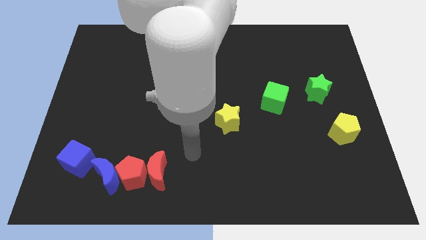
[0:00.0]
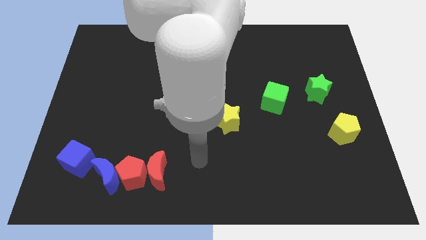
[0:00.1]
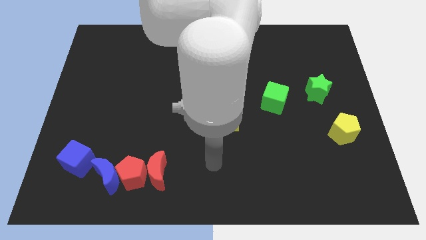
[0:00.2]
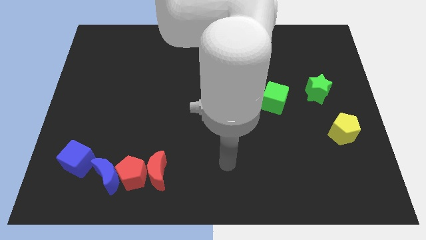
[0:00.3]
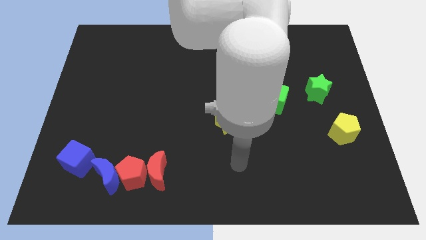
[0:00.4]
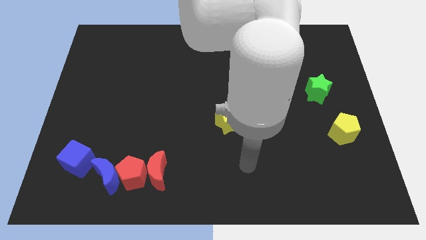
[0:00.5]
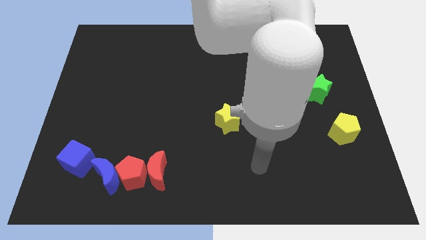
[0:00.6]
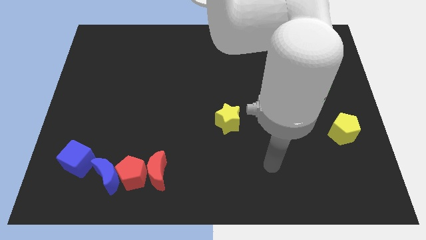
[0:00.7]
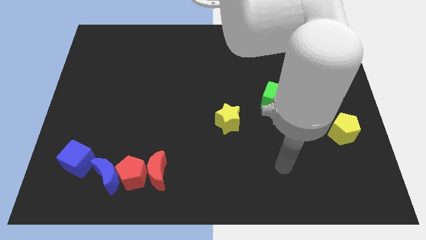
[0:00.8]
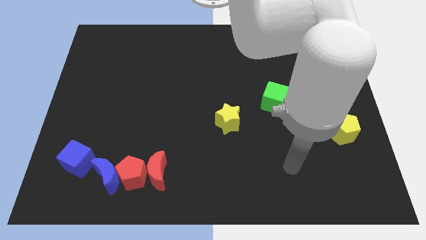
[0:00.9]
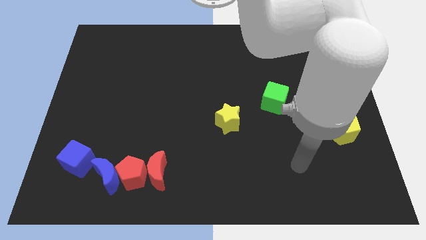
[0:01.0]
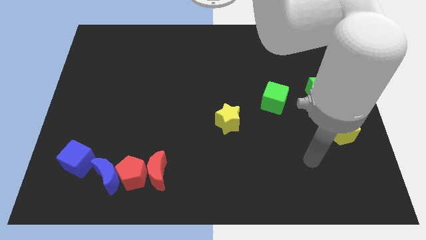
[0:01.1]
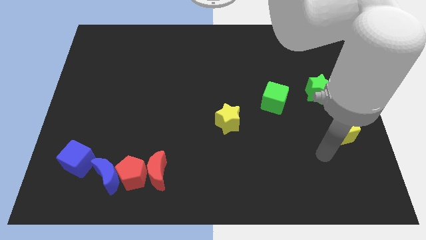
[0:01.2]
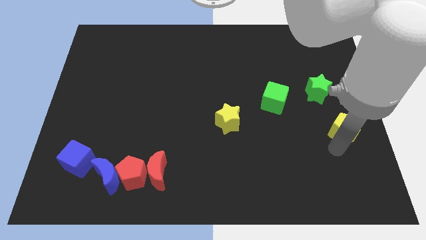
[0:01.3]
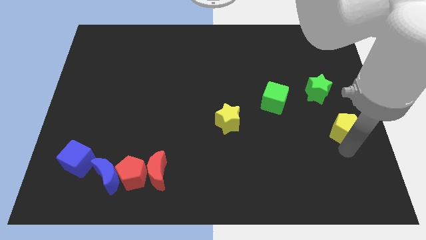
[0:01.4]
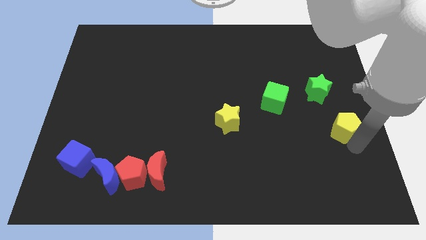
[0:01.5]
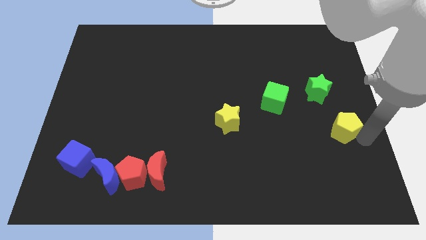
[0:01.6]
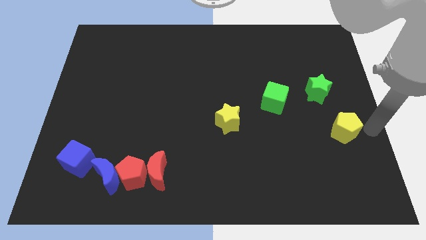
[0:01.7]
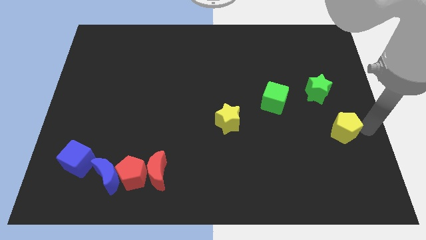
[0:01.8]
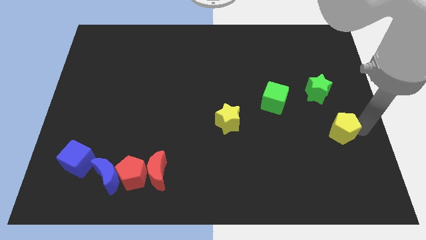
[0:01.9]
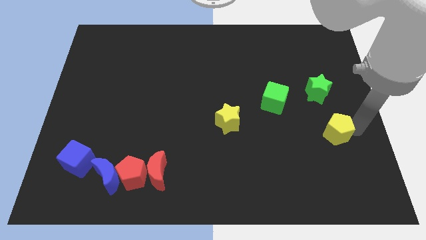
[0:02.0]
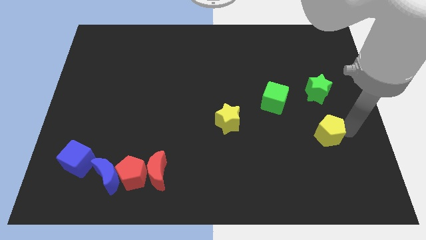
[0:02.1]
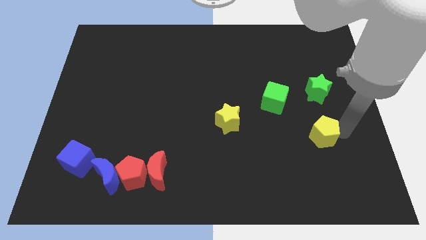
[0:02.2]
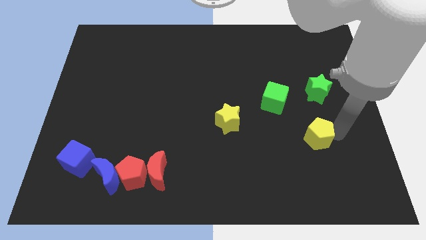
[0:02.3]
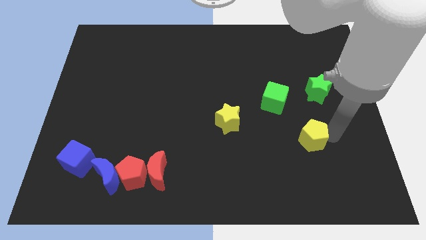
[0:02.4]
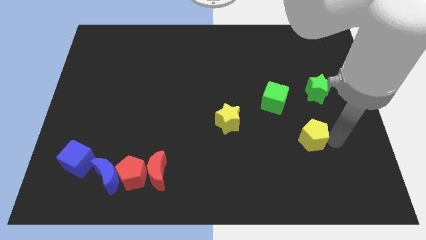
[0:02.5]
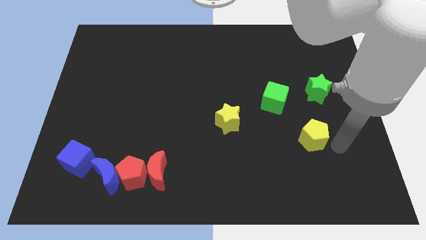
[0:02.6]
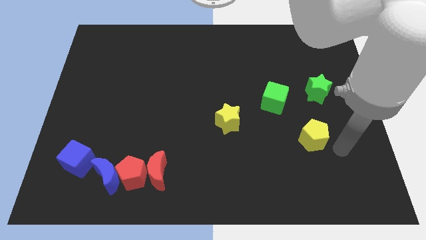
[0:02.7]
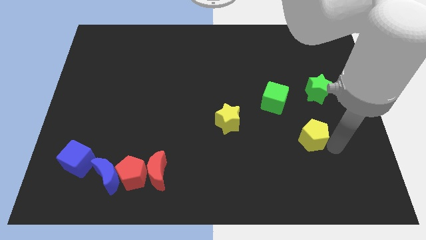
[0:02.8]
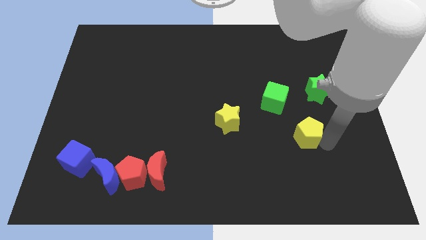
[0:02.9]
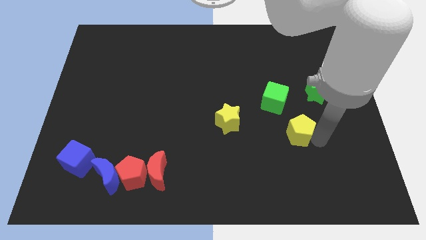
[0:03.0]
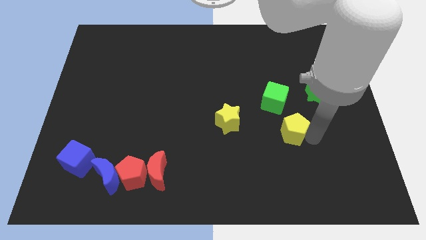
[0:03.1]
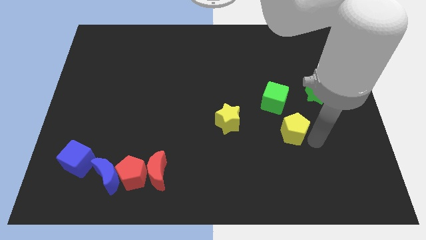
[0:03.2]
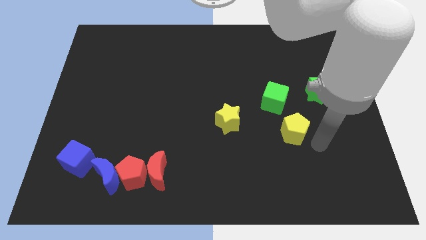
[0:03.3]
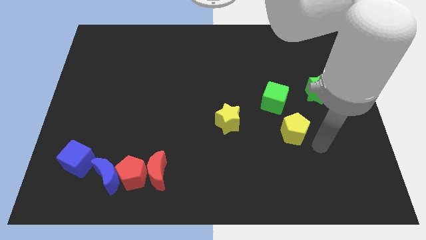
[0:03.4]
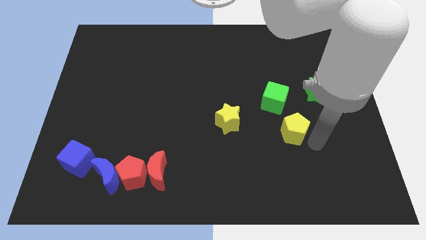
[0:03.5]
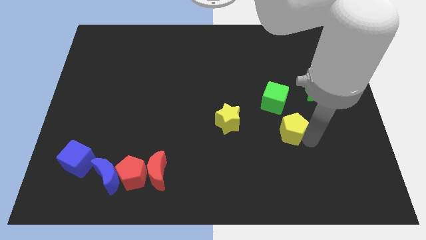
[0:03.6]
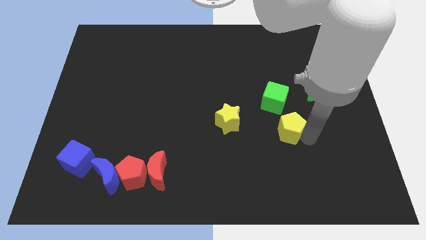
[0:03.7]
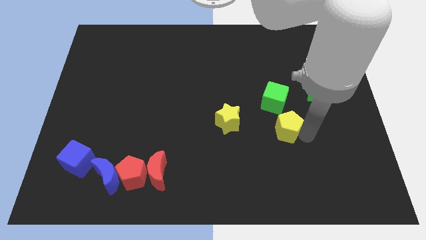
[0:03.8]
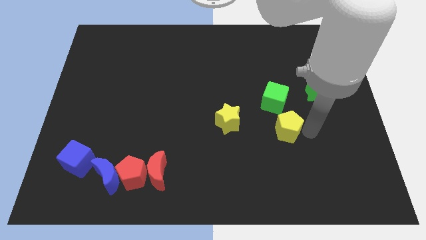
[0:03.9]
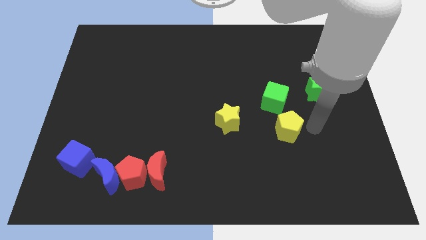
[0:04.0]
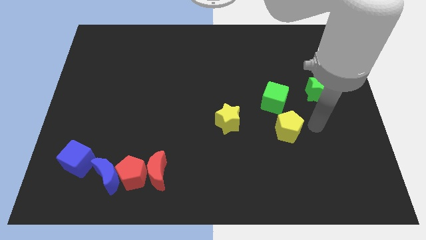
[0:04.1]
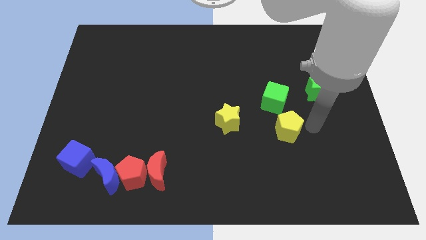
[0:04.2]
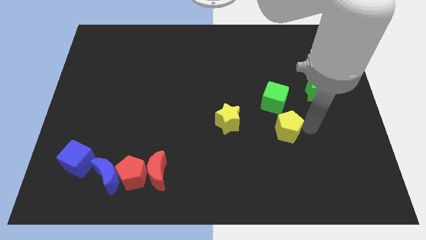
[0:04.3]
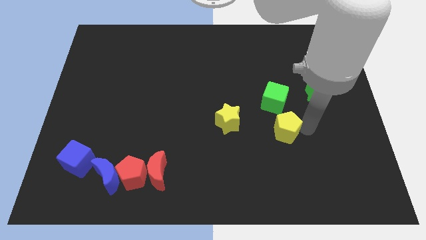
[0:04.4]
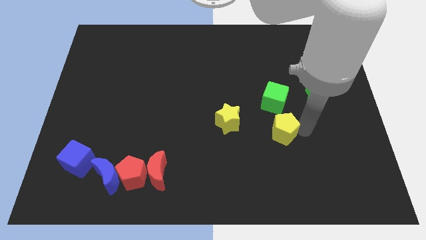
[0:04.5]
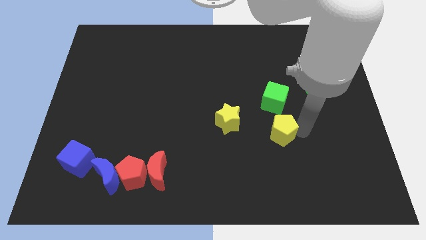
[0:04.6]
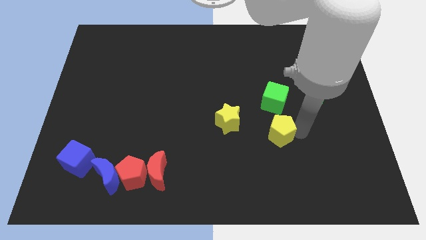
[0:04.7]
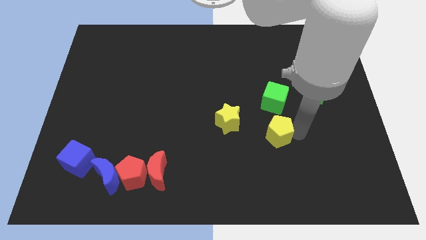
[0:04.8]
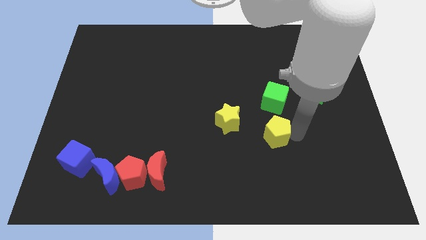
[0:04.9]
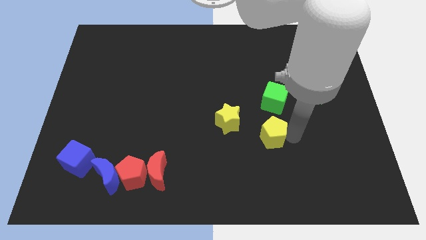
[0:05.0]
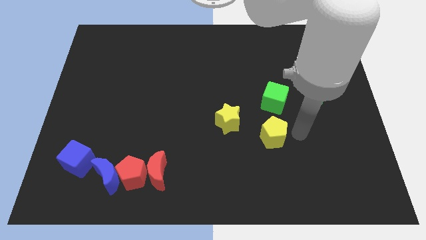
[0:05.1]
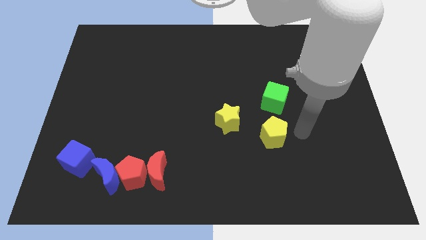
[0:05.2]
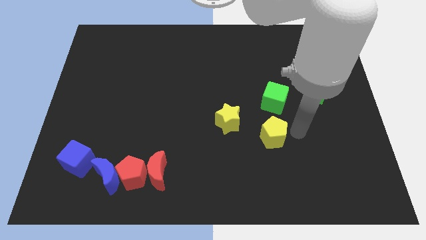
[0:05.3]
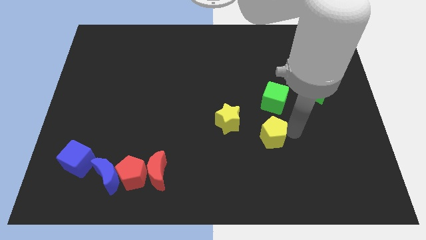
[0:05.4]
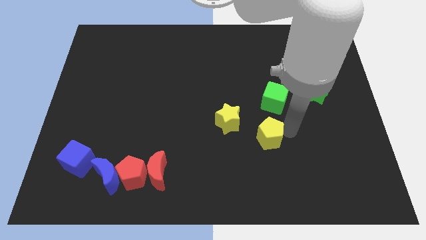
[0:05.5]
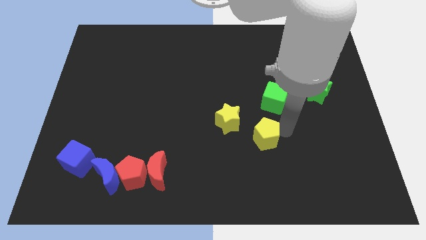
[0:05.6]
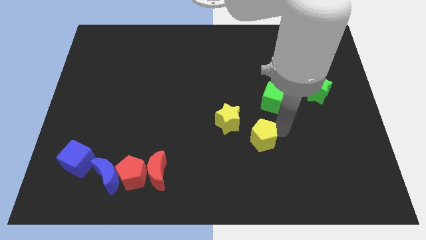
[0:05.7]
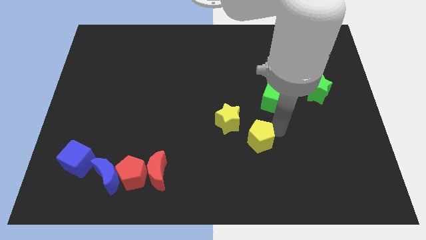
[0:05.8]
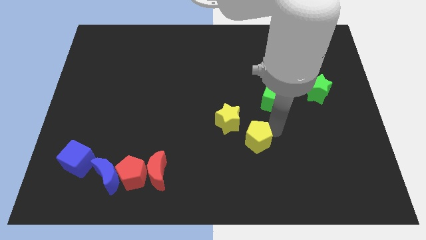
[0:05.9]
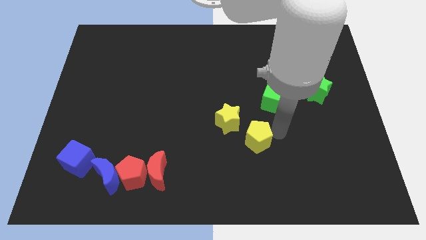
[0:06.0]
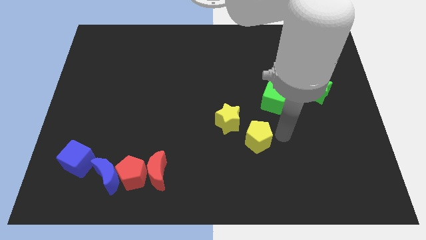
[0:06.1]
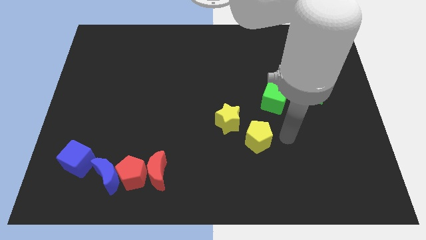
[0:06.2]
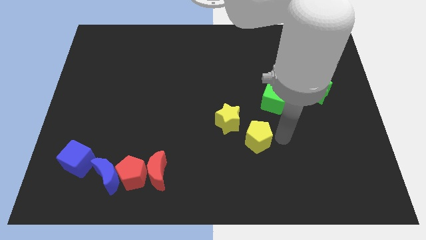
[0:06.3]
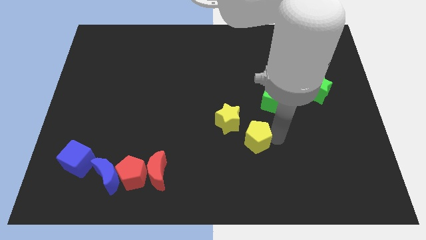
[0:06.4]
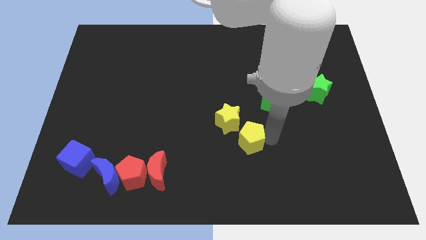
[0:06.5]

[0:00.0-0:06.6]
move the yellow pentagon to the left

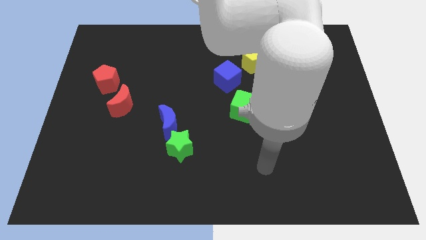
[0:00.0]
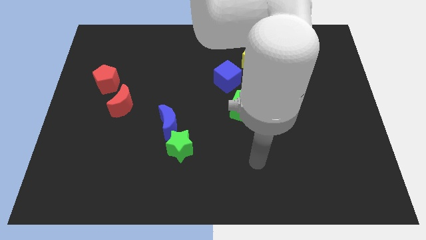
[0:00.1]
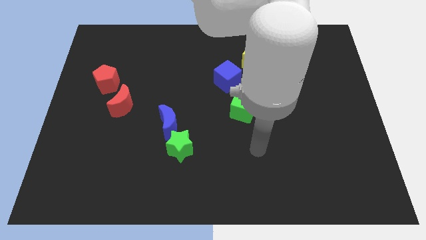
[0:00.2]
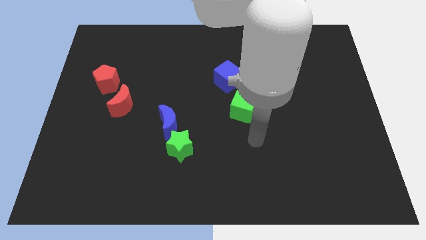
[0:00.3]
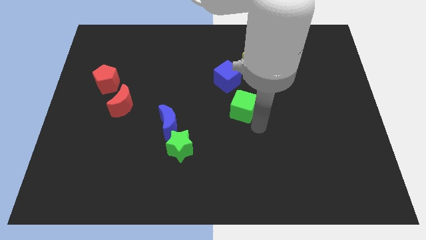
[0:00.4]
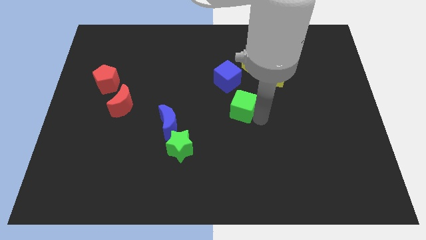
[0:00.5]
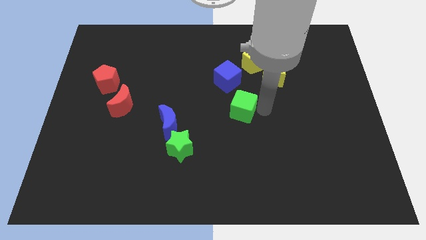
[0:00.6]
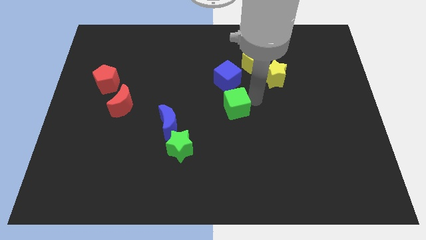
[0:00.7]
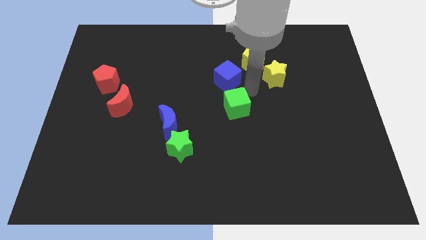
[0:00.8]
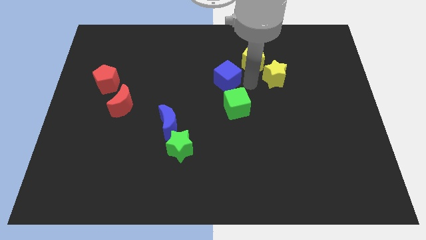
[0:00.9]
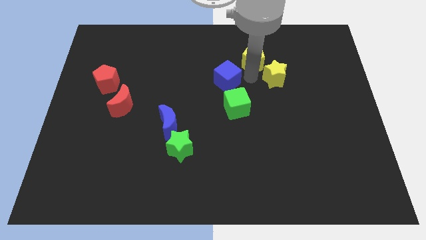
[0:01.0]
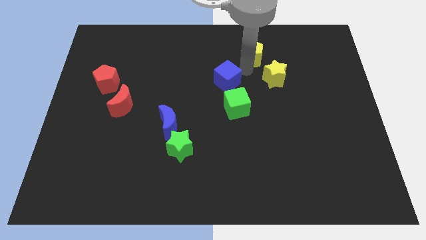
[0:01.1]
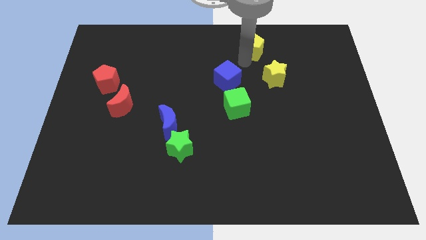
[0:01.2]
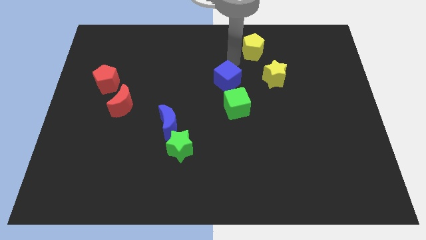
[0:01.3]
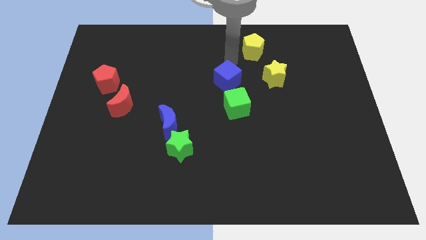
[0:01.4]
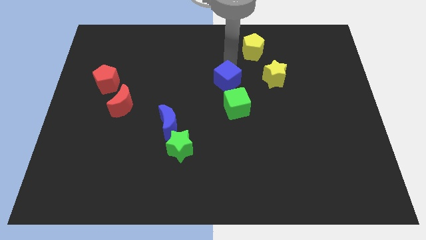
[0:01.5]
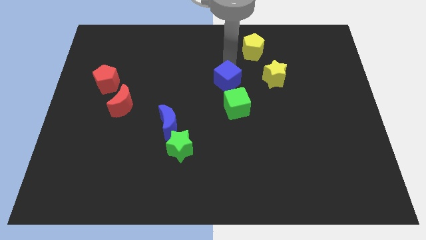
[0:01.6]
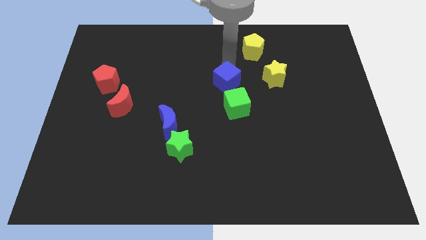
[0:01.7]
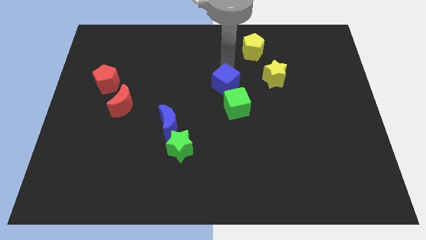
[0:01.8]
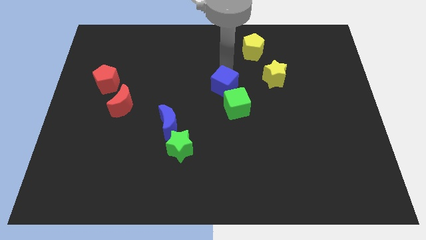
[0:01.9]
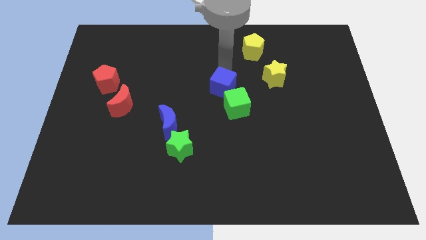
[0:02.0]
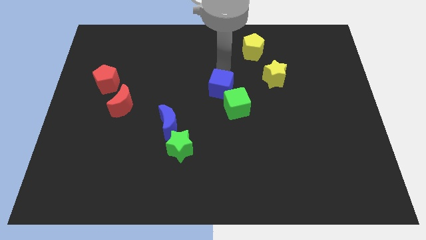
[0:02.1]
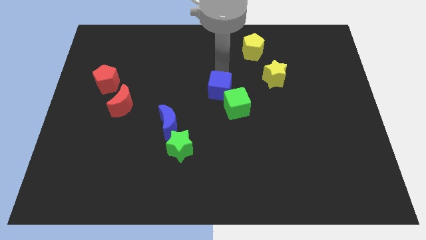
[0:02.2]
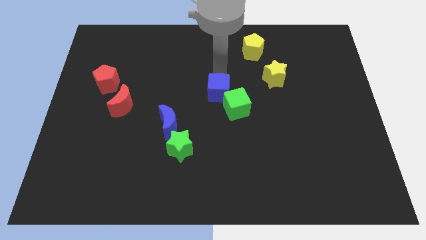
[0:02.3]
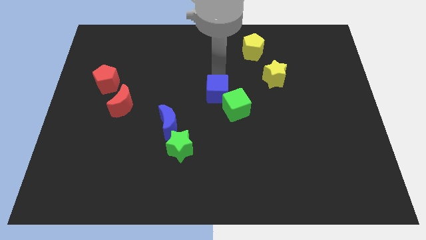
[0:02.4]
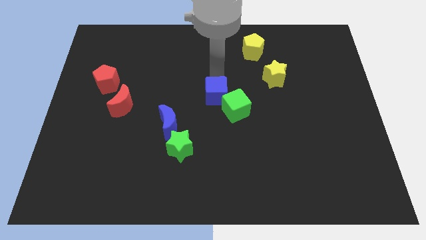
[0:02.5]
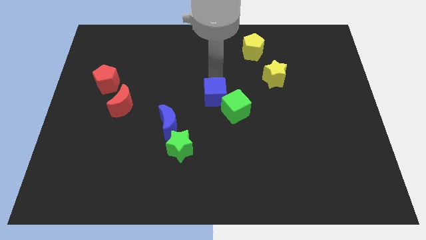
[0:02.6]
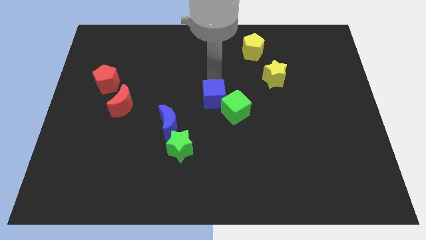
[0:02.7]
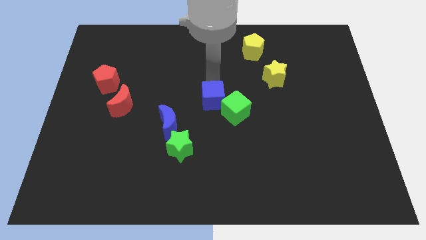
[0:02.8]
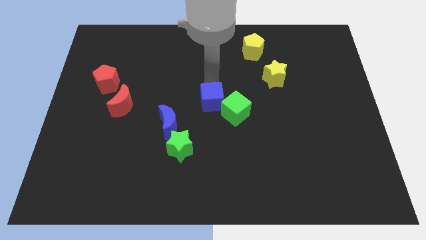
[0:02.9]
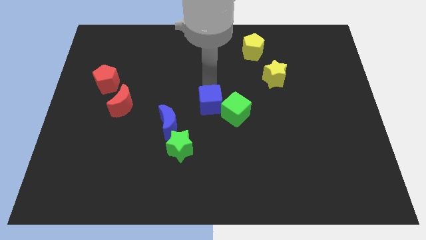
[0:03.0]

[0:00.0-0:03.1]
move the blue cube down a little bit
